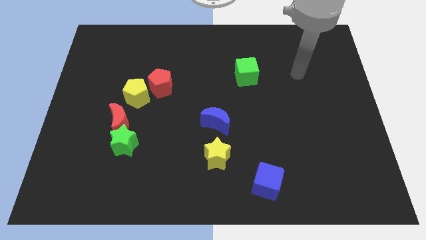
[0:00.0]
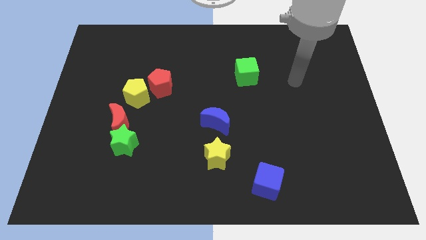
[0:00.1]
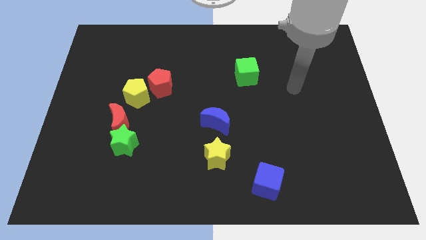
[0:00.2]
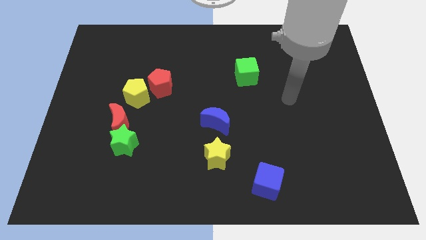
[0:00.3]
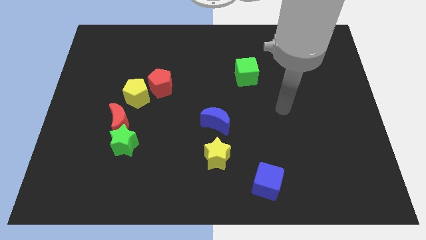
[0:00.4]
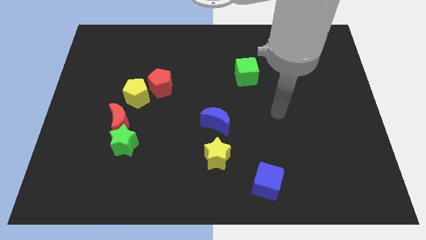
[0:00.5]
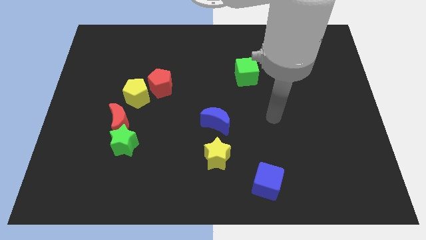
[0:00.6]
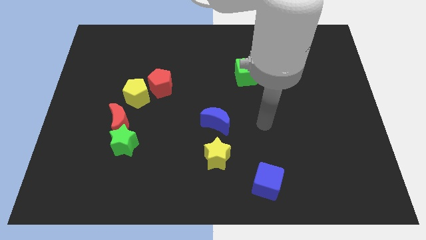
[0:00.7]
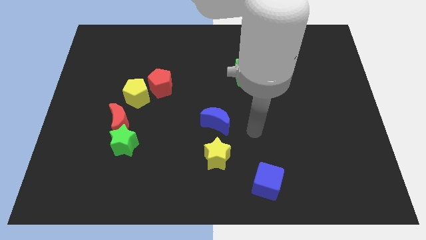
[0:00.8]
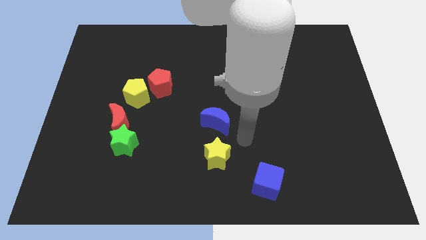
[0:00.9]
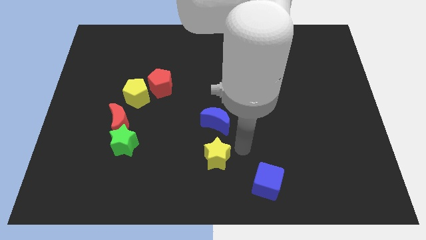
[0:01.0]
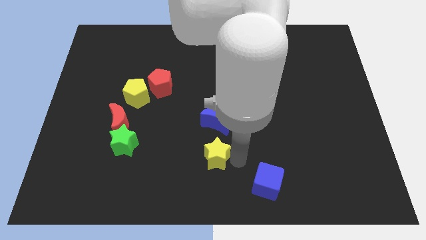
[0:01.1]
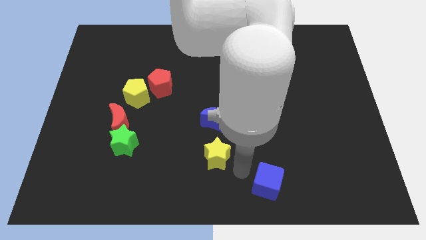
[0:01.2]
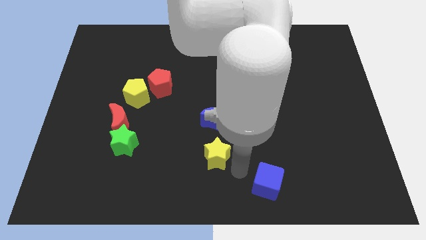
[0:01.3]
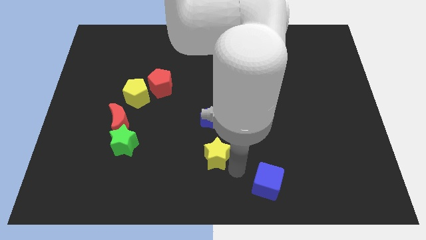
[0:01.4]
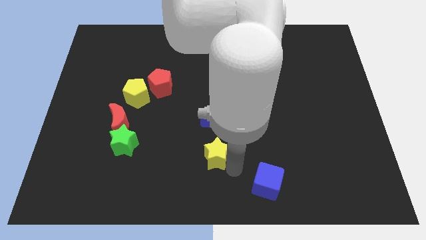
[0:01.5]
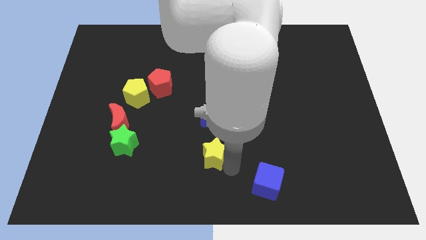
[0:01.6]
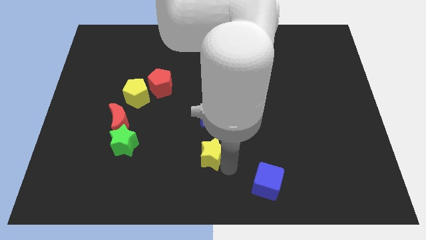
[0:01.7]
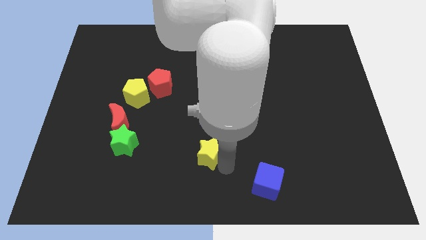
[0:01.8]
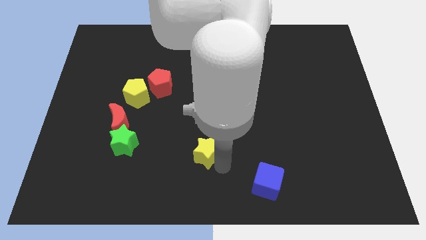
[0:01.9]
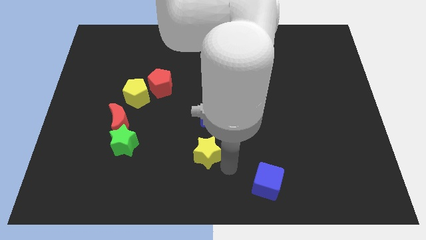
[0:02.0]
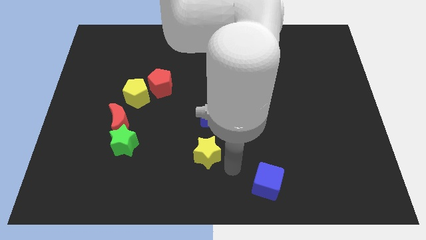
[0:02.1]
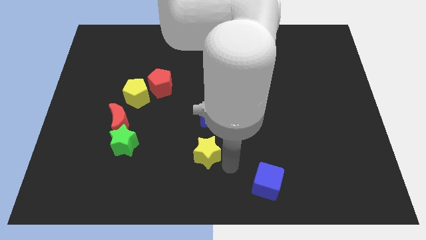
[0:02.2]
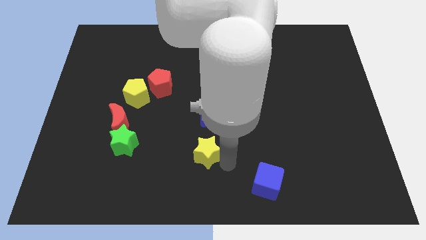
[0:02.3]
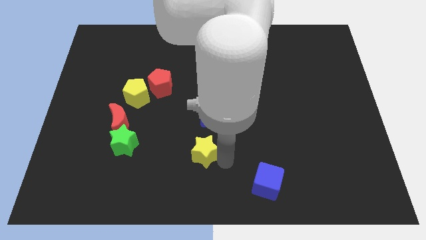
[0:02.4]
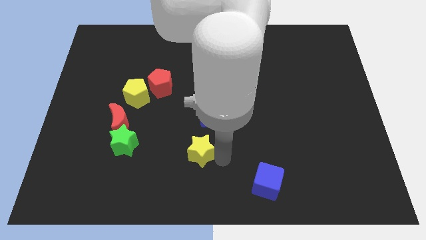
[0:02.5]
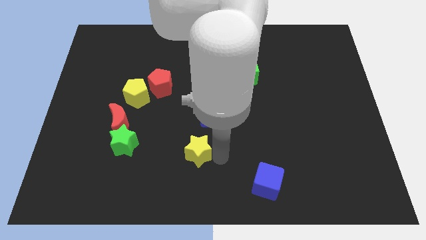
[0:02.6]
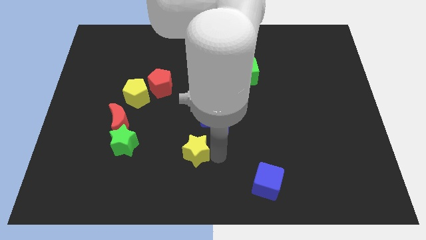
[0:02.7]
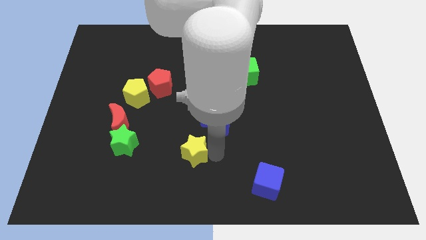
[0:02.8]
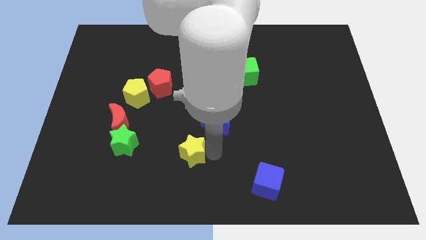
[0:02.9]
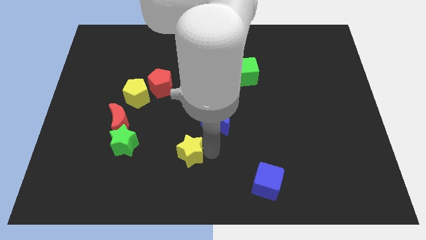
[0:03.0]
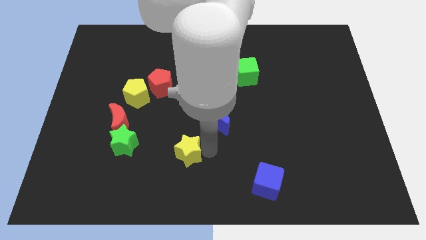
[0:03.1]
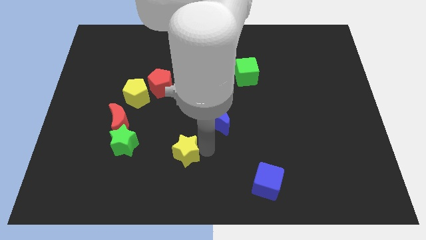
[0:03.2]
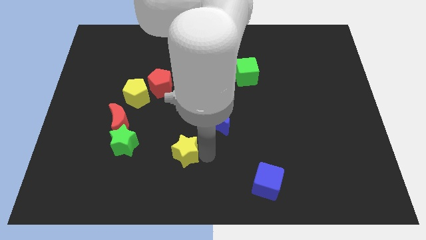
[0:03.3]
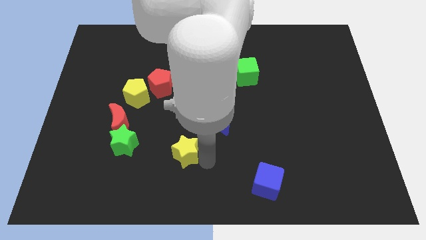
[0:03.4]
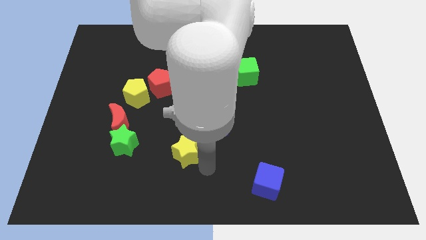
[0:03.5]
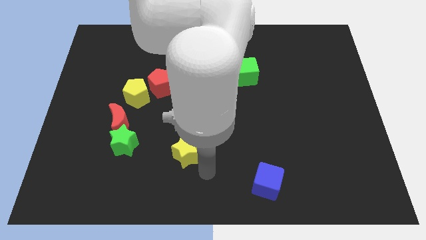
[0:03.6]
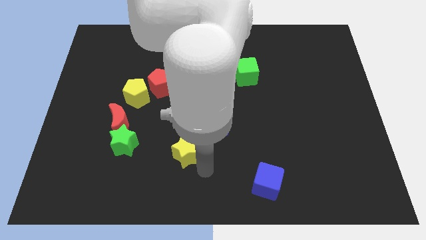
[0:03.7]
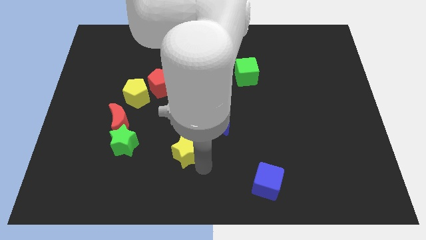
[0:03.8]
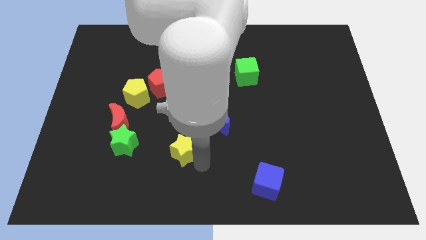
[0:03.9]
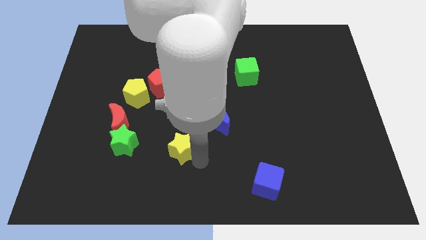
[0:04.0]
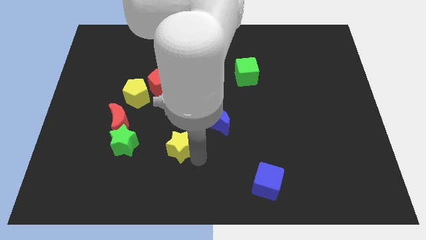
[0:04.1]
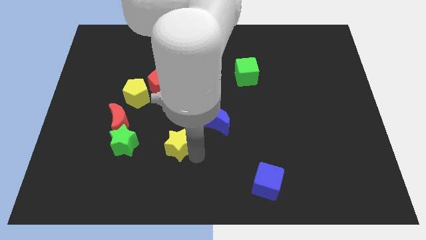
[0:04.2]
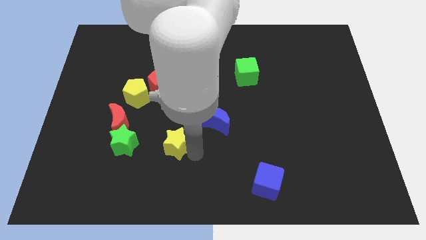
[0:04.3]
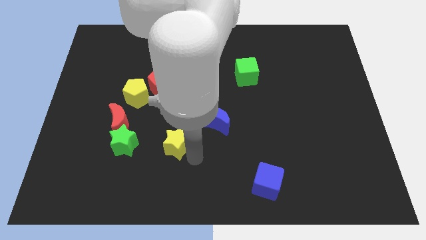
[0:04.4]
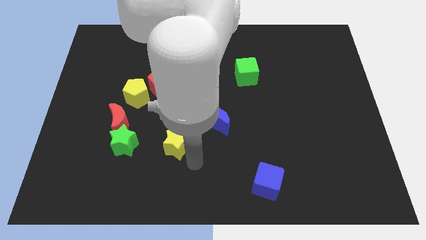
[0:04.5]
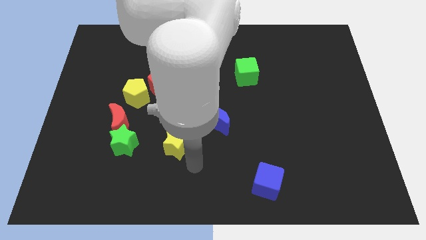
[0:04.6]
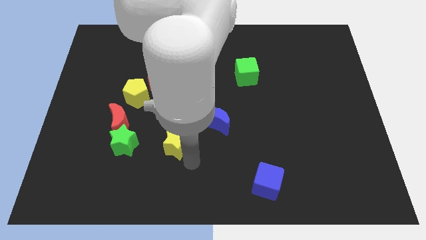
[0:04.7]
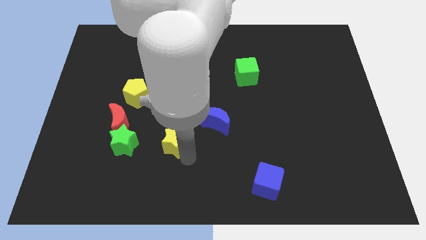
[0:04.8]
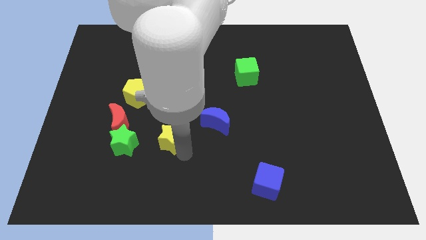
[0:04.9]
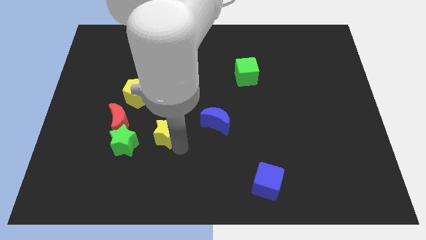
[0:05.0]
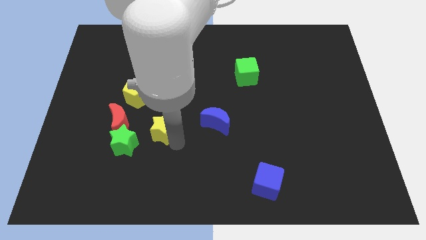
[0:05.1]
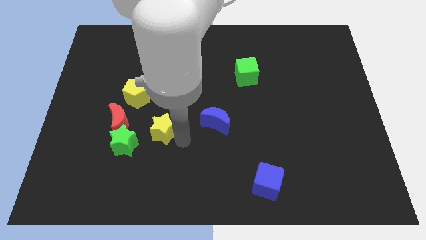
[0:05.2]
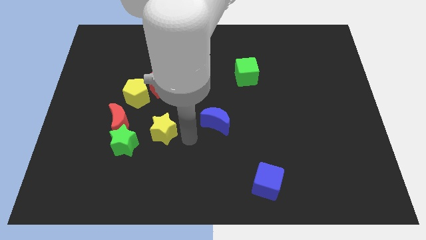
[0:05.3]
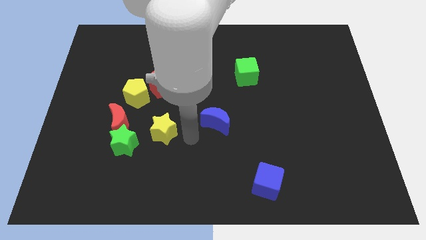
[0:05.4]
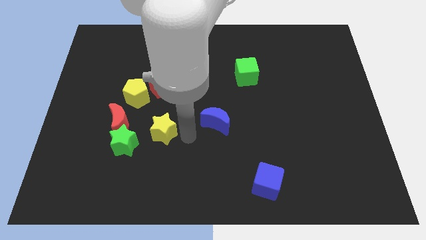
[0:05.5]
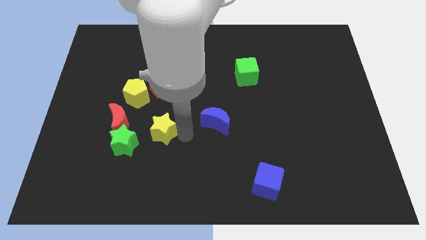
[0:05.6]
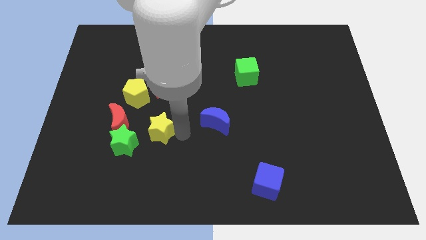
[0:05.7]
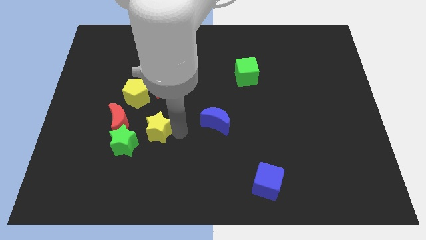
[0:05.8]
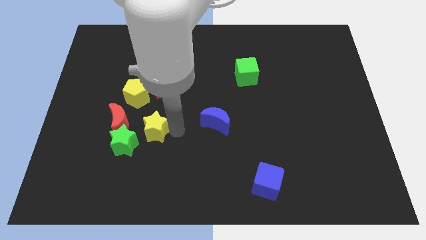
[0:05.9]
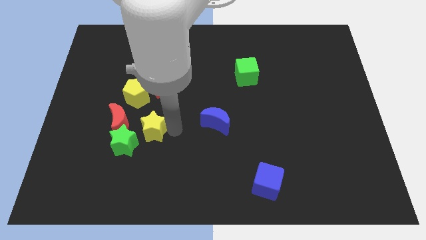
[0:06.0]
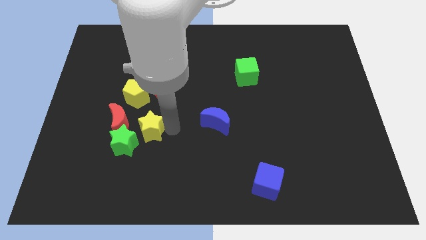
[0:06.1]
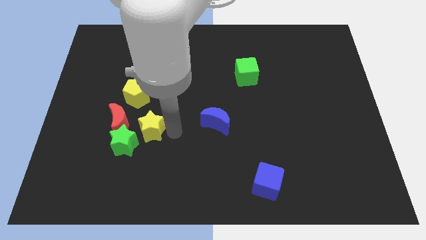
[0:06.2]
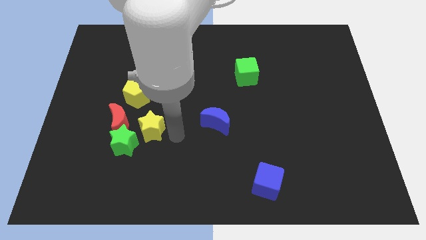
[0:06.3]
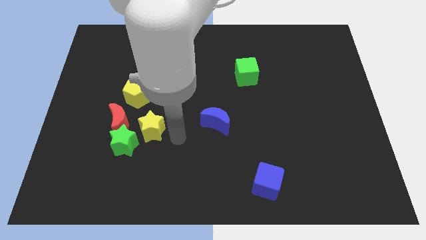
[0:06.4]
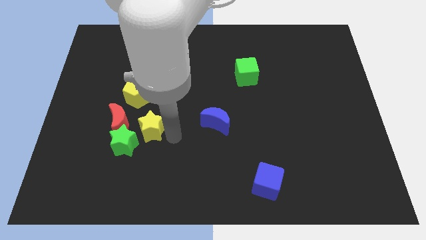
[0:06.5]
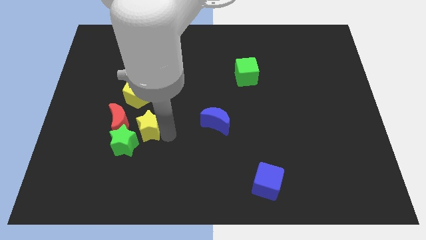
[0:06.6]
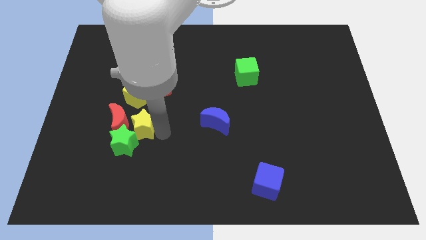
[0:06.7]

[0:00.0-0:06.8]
push the yellow star next to the red moon
